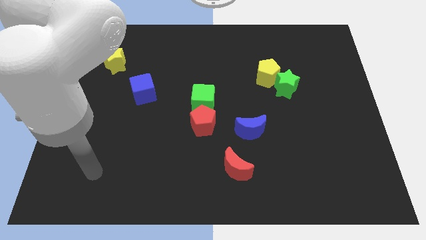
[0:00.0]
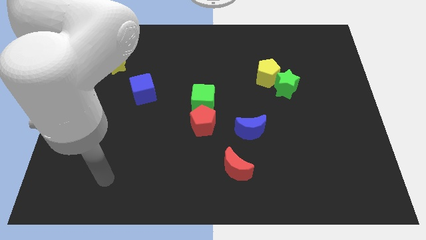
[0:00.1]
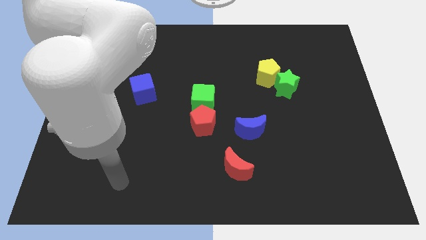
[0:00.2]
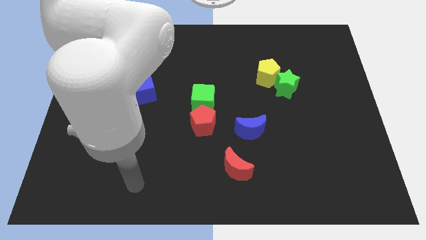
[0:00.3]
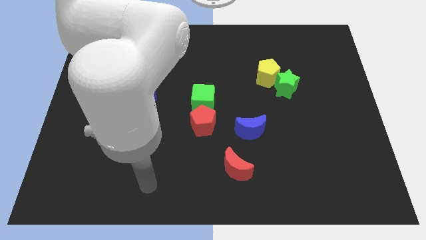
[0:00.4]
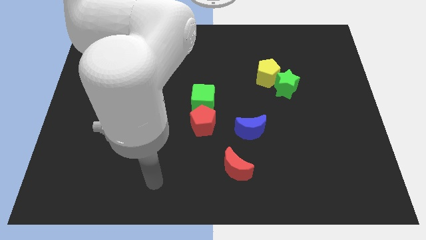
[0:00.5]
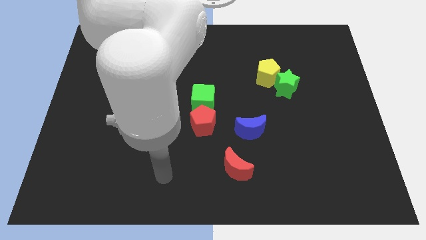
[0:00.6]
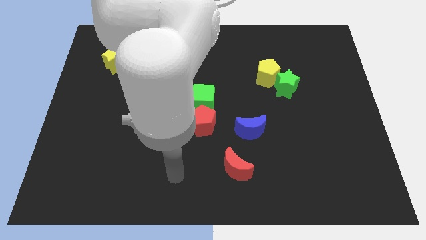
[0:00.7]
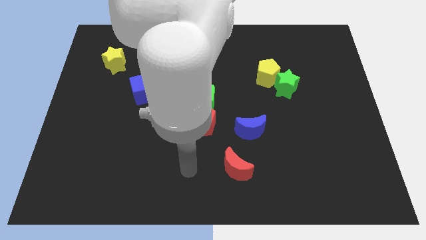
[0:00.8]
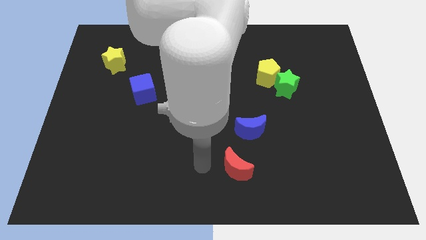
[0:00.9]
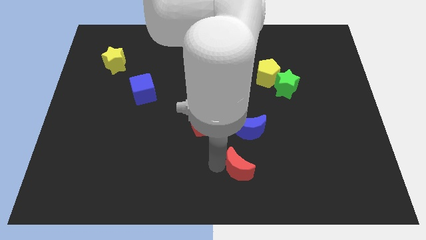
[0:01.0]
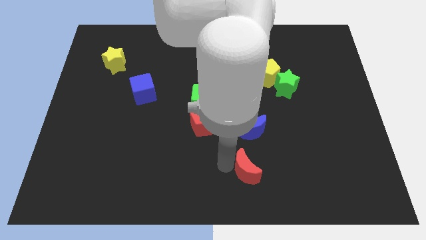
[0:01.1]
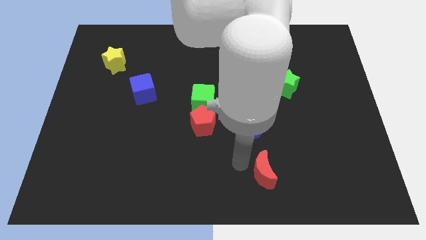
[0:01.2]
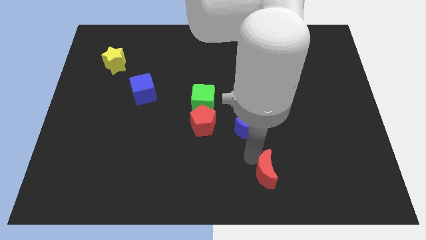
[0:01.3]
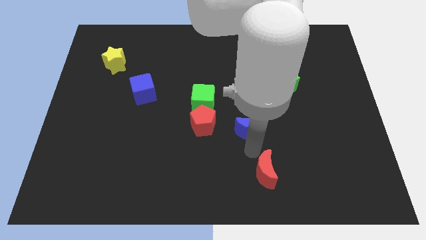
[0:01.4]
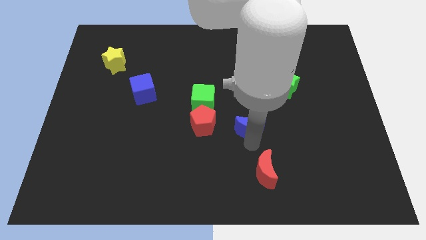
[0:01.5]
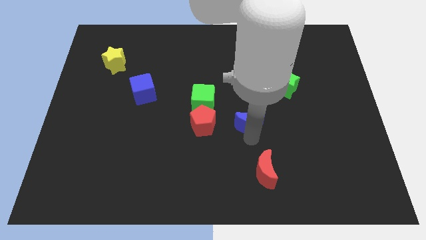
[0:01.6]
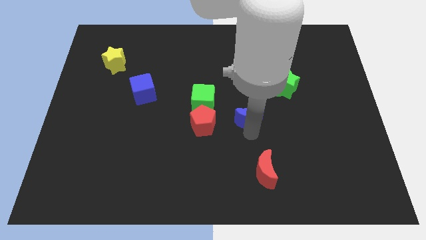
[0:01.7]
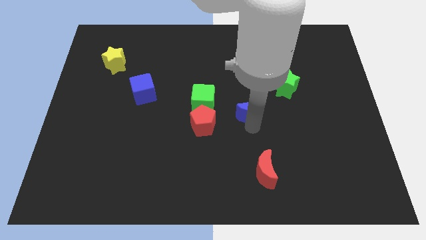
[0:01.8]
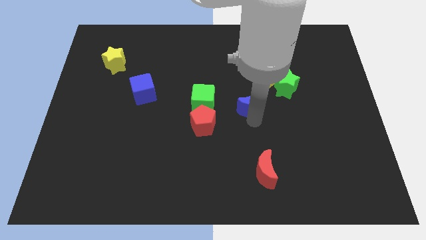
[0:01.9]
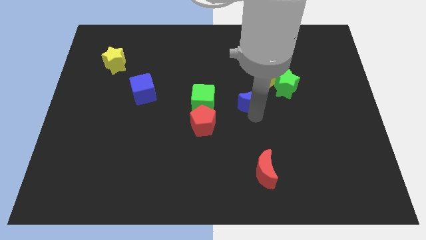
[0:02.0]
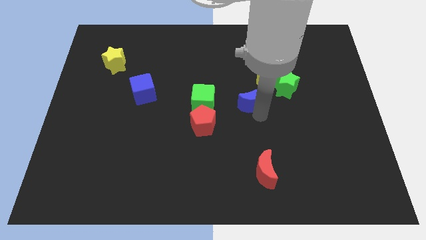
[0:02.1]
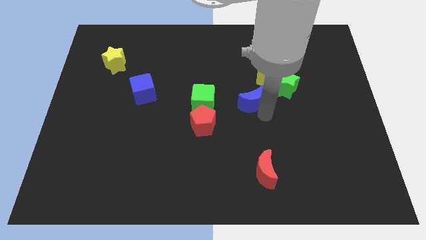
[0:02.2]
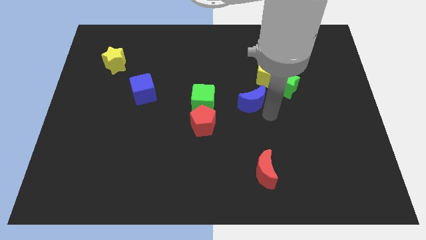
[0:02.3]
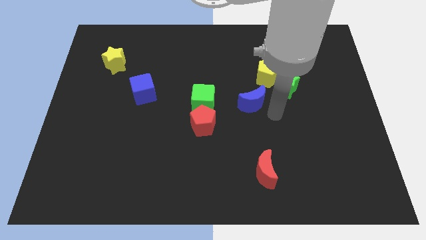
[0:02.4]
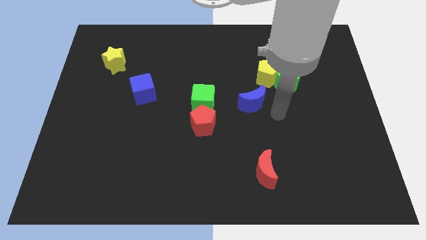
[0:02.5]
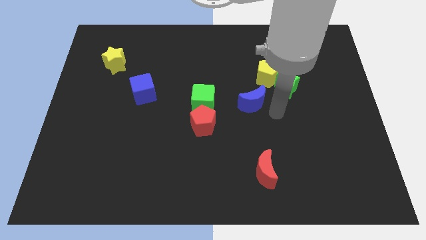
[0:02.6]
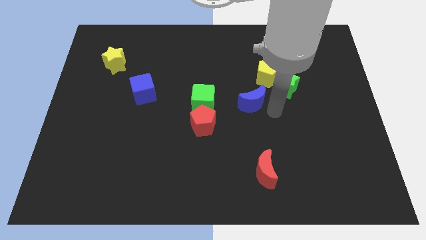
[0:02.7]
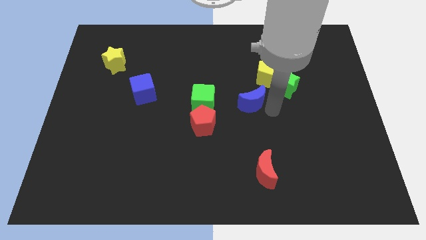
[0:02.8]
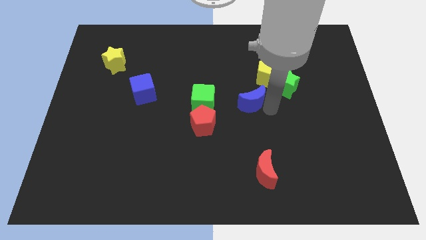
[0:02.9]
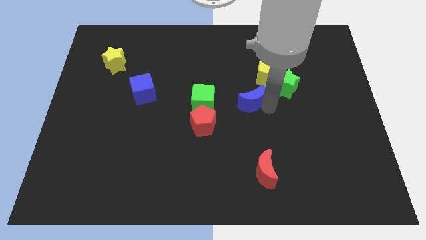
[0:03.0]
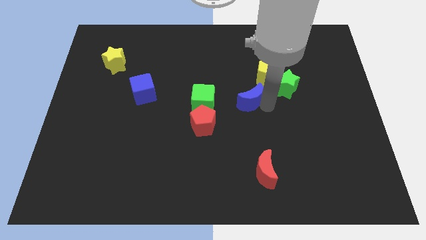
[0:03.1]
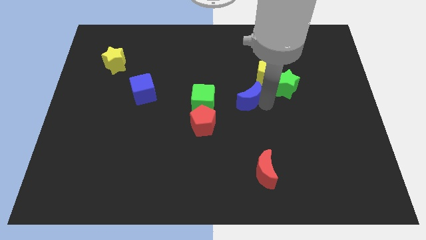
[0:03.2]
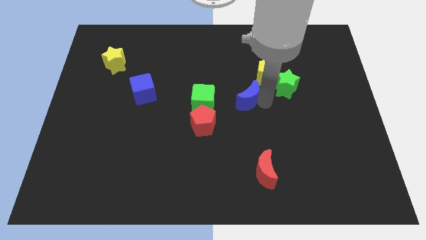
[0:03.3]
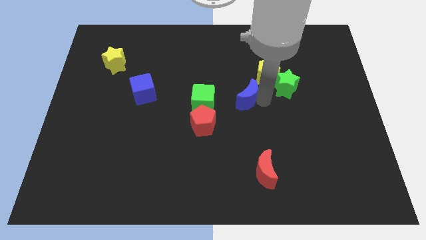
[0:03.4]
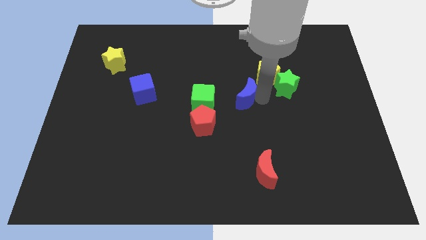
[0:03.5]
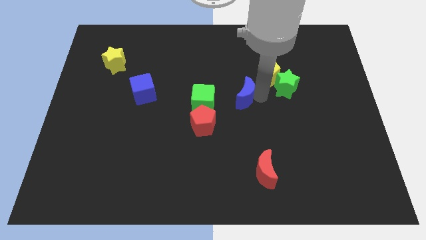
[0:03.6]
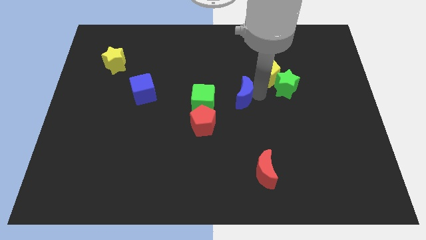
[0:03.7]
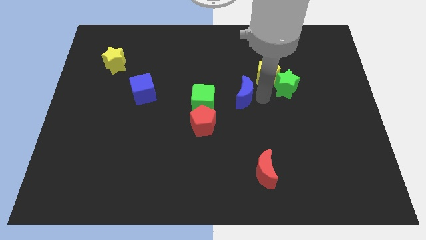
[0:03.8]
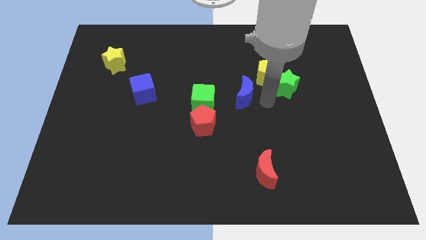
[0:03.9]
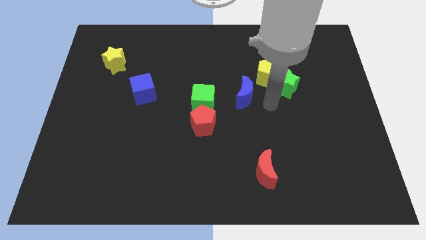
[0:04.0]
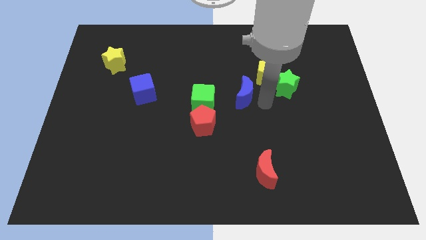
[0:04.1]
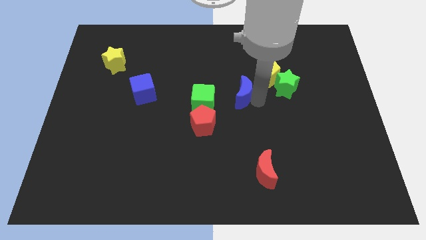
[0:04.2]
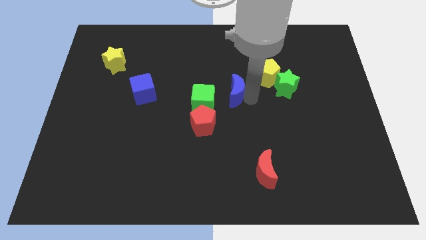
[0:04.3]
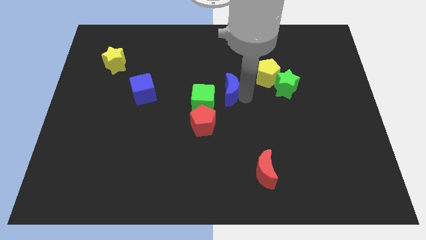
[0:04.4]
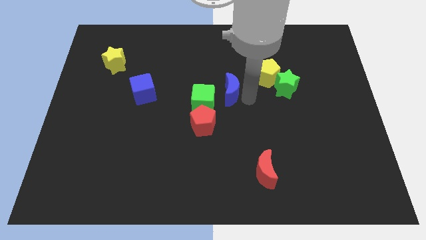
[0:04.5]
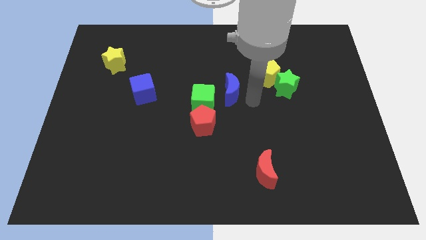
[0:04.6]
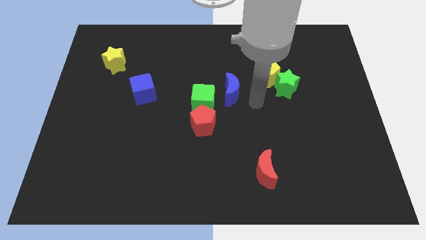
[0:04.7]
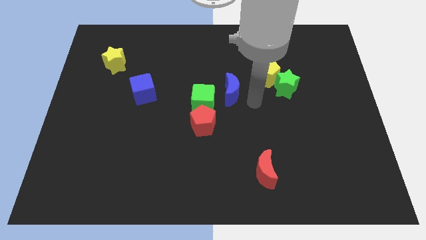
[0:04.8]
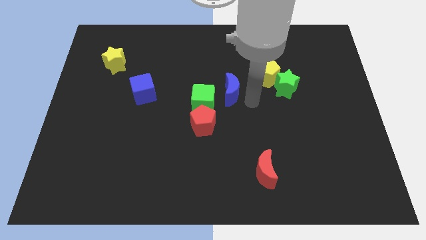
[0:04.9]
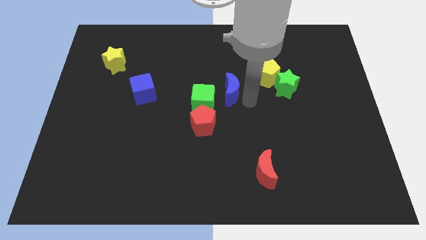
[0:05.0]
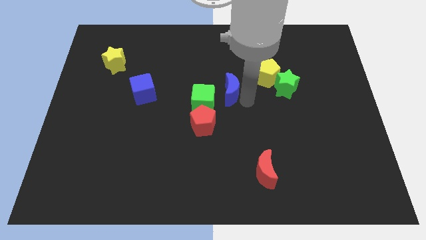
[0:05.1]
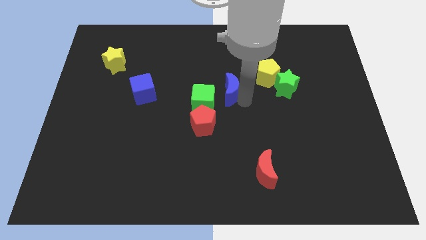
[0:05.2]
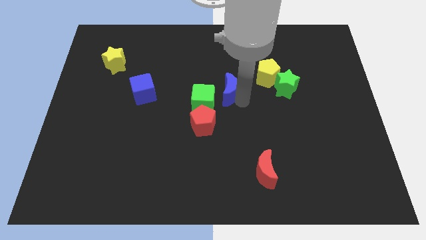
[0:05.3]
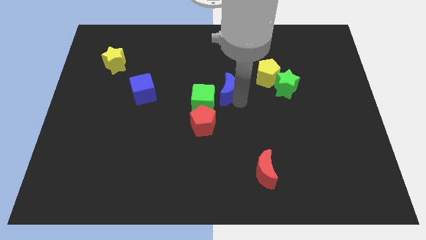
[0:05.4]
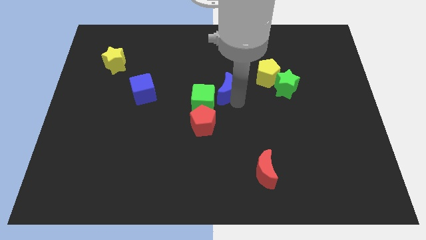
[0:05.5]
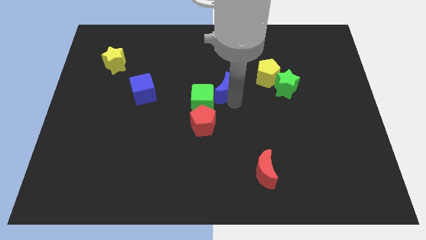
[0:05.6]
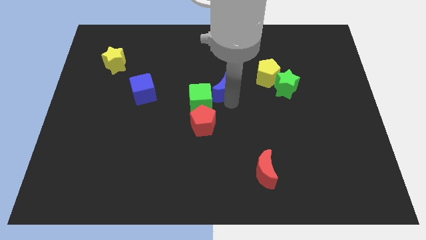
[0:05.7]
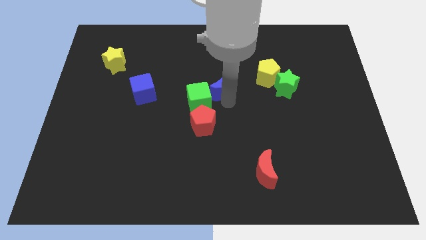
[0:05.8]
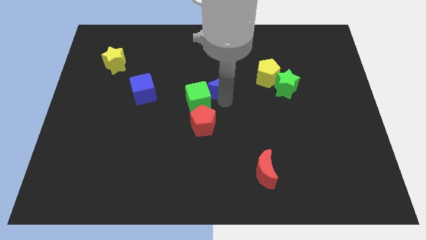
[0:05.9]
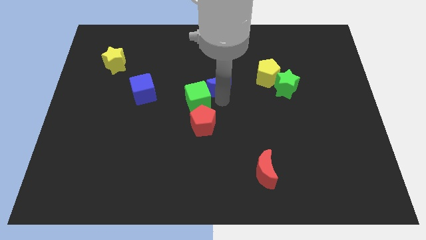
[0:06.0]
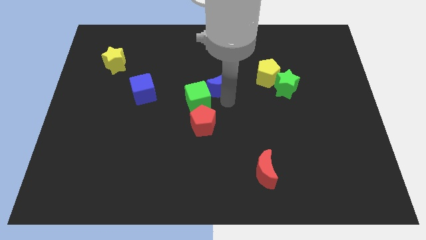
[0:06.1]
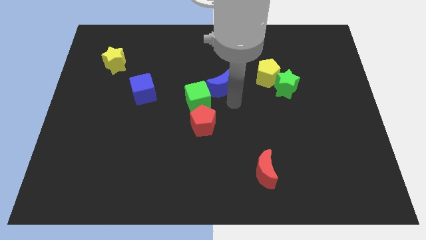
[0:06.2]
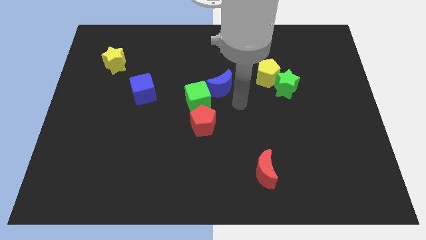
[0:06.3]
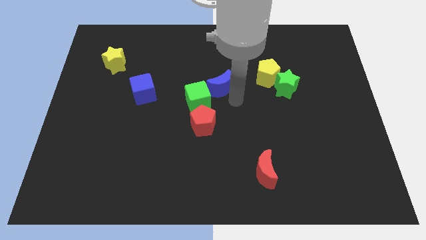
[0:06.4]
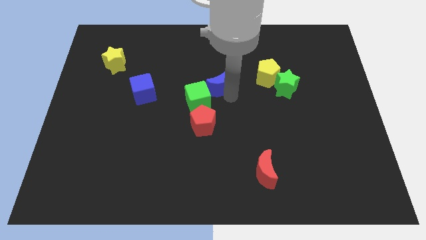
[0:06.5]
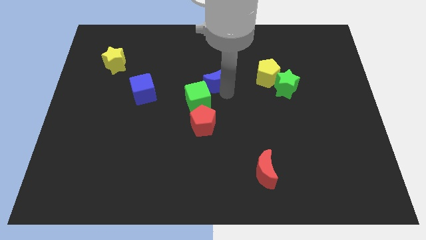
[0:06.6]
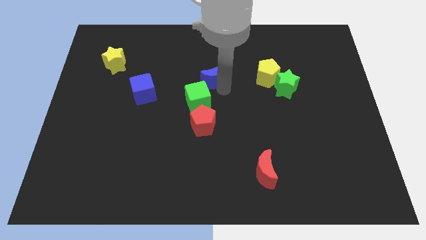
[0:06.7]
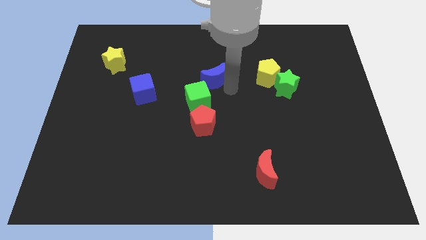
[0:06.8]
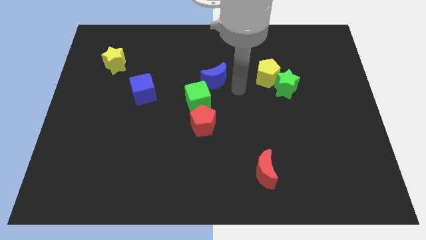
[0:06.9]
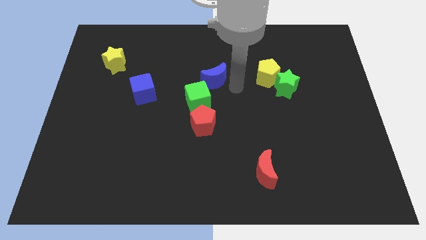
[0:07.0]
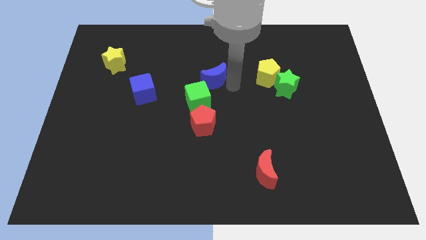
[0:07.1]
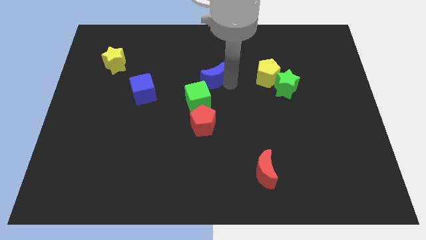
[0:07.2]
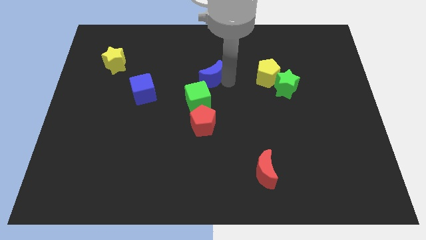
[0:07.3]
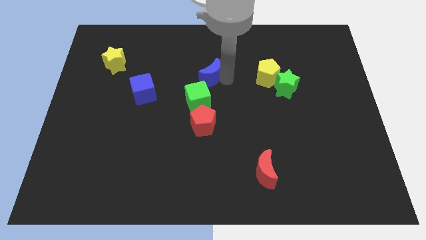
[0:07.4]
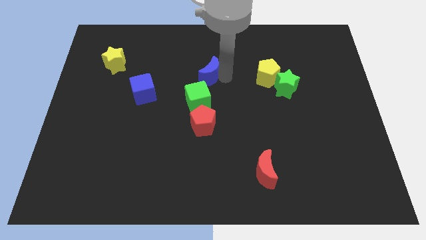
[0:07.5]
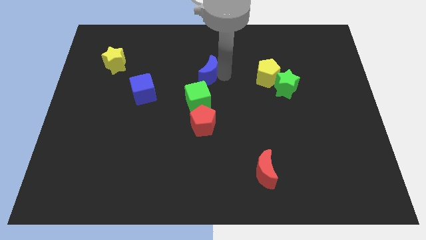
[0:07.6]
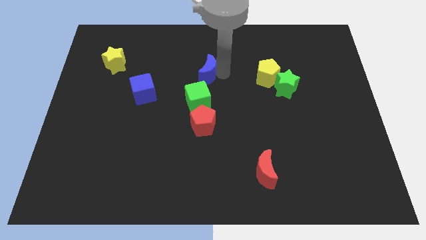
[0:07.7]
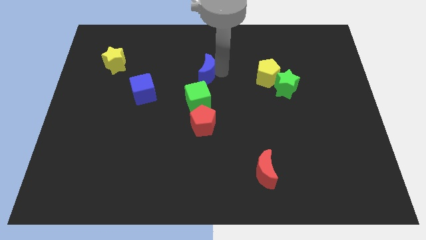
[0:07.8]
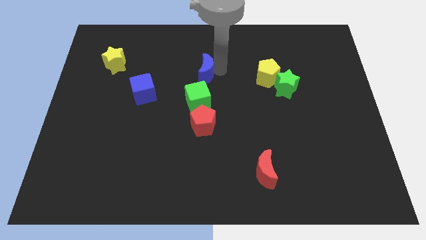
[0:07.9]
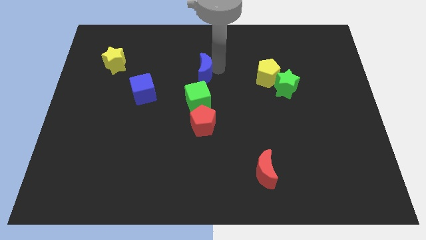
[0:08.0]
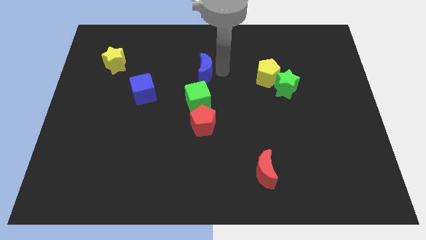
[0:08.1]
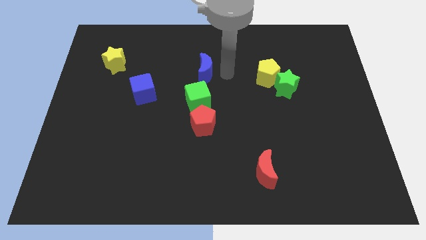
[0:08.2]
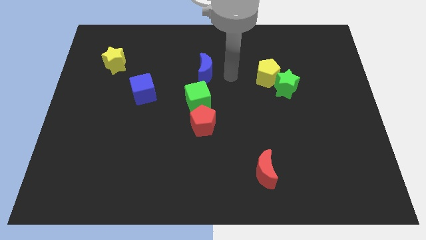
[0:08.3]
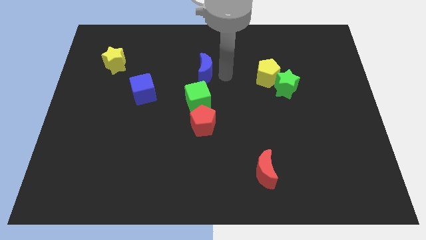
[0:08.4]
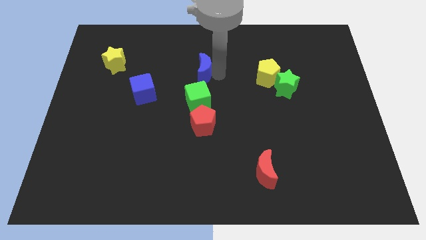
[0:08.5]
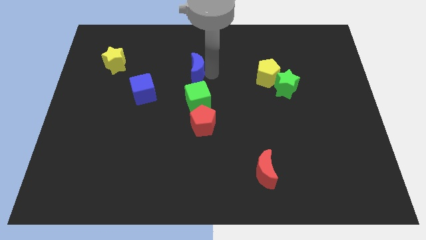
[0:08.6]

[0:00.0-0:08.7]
move the blue moon upwards and to the left diagonally
